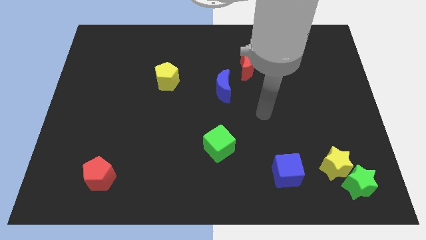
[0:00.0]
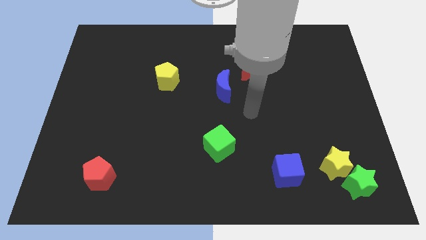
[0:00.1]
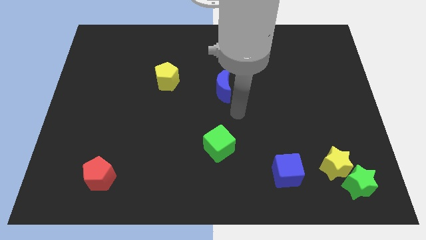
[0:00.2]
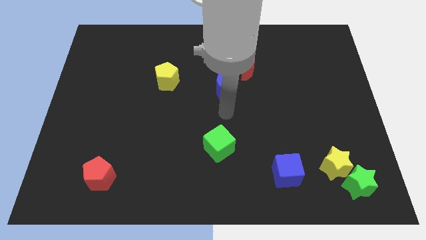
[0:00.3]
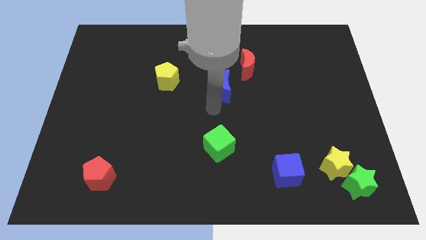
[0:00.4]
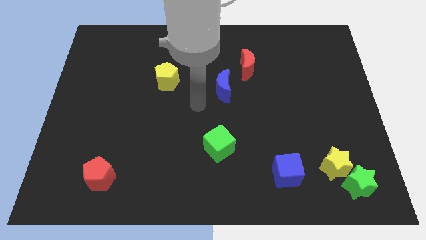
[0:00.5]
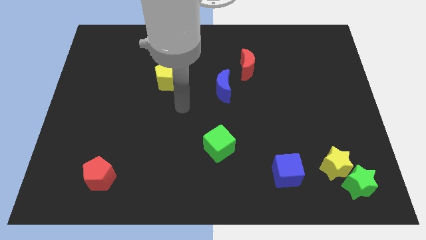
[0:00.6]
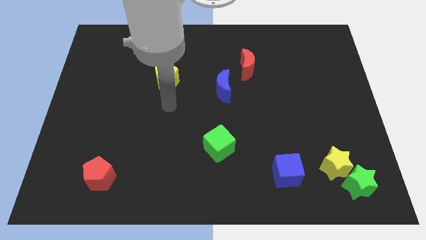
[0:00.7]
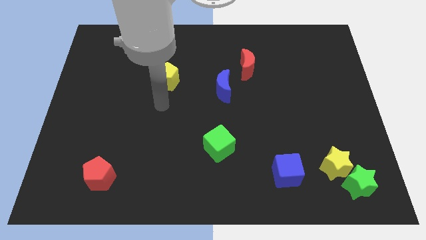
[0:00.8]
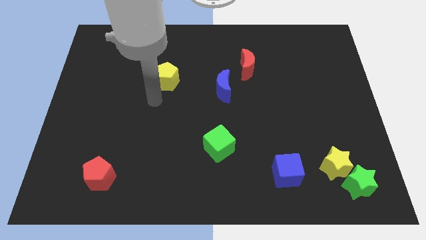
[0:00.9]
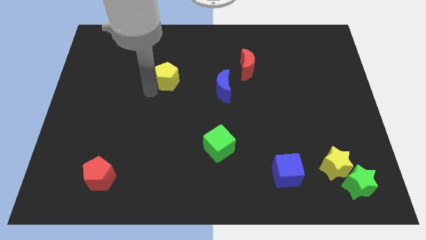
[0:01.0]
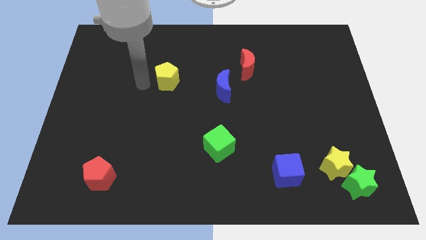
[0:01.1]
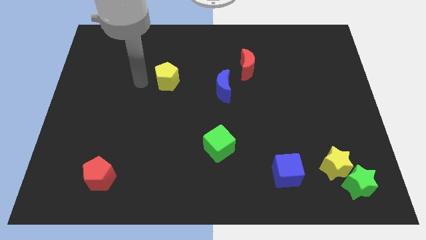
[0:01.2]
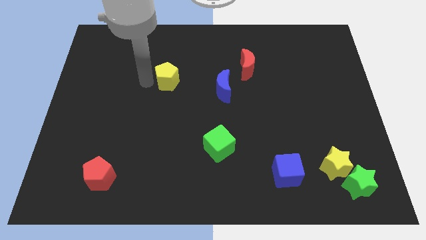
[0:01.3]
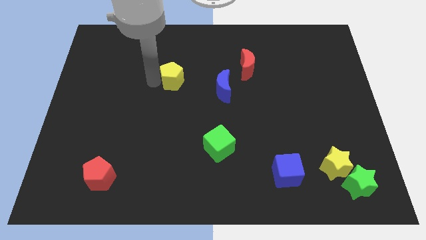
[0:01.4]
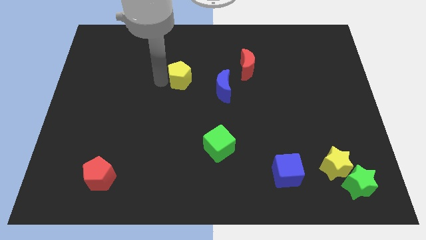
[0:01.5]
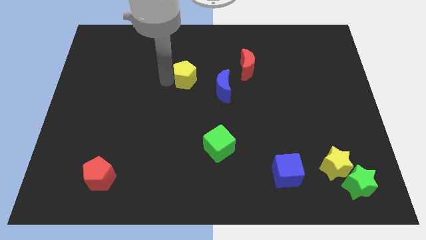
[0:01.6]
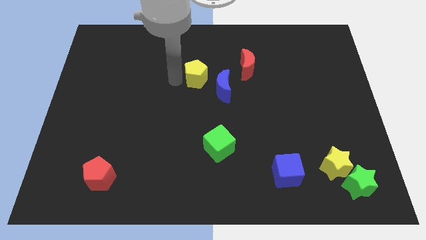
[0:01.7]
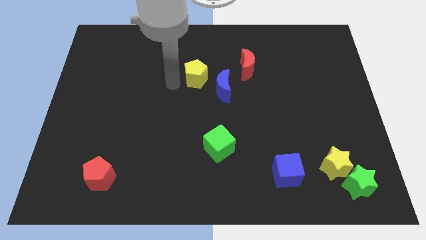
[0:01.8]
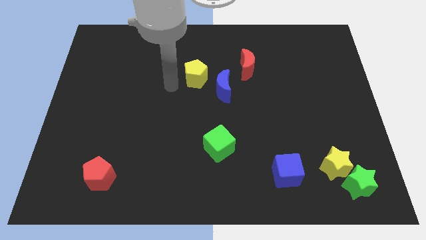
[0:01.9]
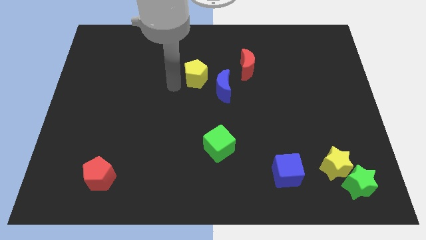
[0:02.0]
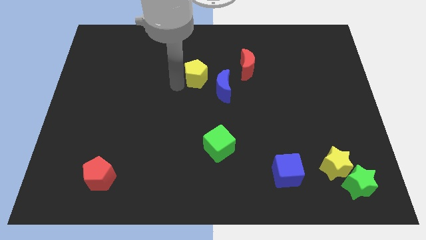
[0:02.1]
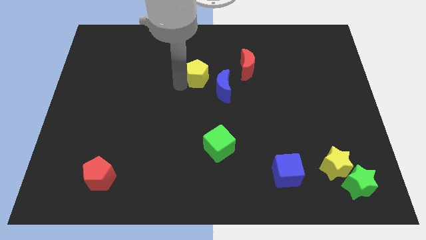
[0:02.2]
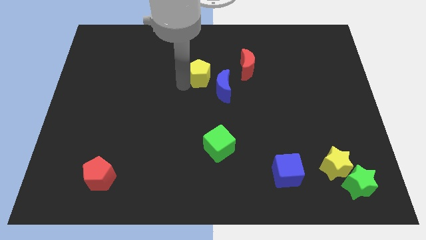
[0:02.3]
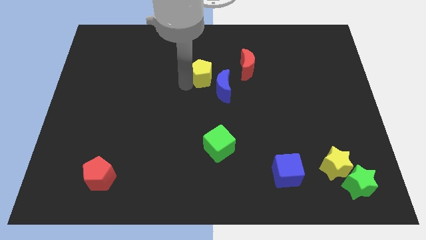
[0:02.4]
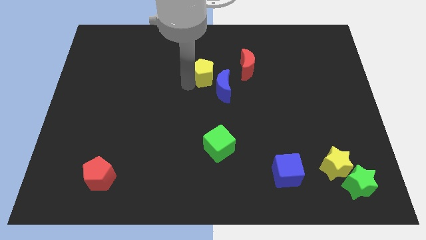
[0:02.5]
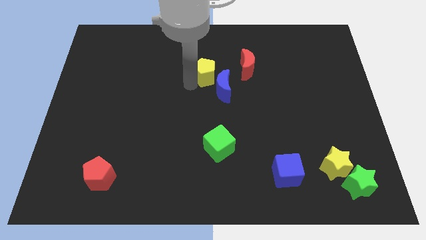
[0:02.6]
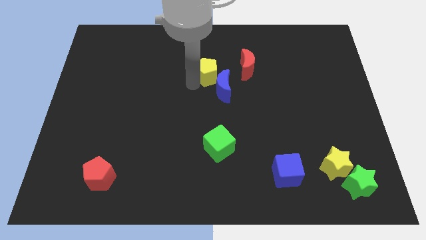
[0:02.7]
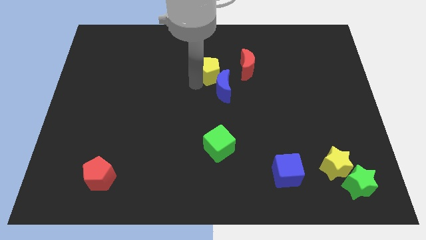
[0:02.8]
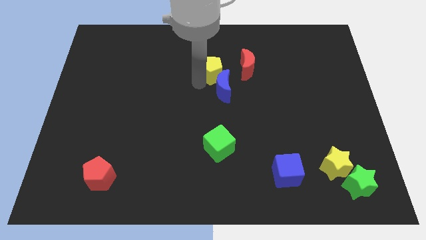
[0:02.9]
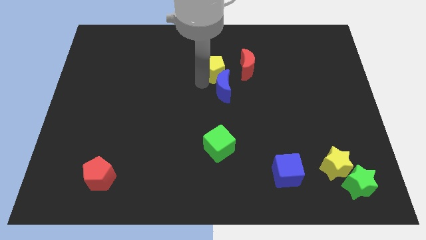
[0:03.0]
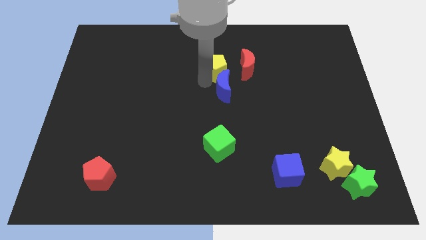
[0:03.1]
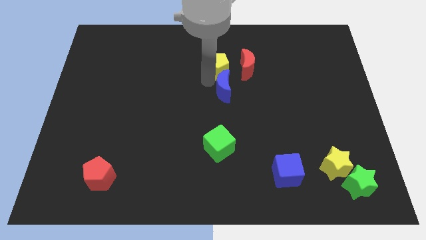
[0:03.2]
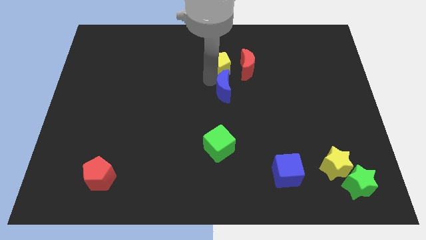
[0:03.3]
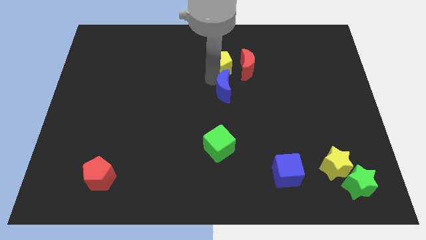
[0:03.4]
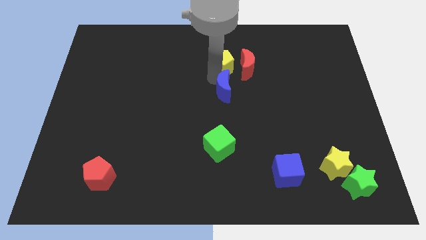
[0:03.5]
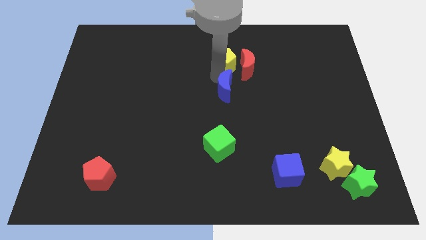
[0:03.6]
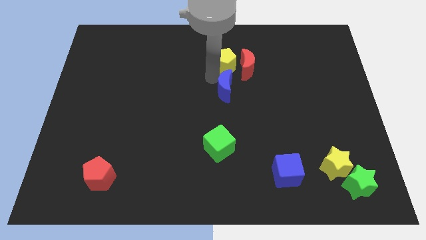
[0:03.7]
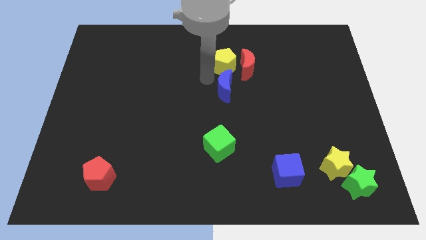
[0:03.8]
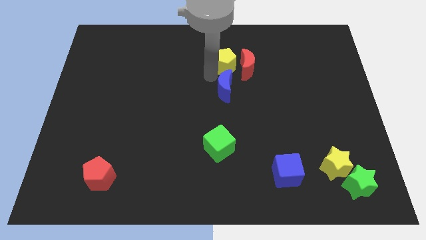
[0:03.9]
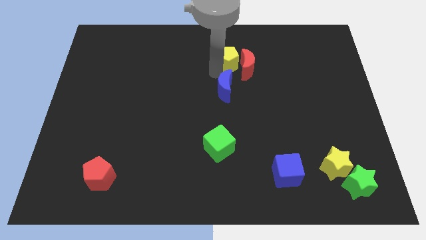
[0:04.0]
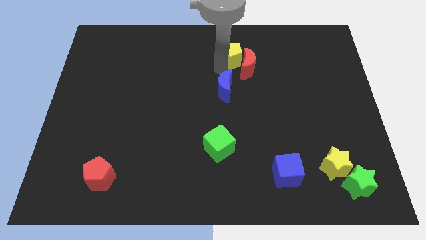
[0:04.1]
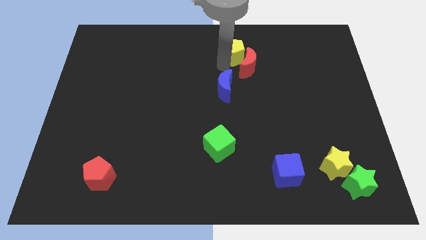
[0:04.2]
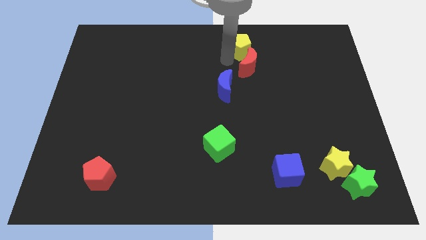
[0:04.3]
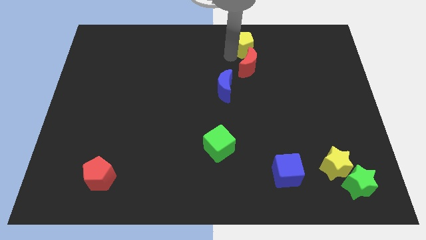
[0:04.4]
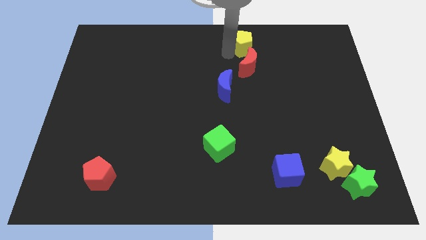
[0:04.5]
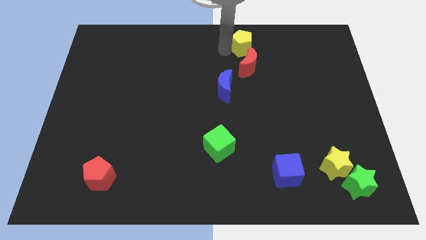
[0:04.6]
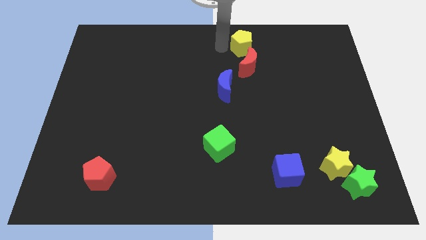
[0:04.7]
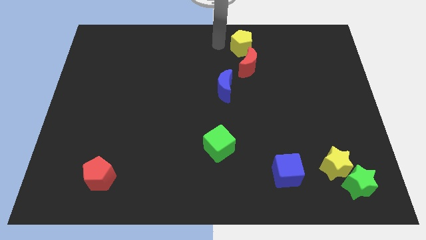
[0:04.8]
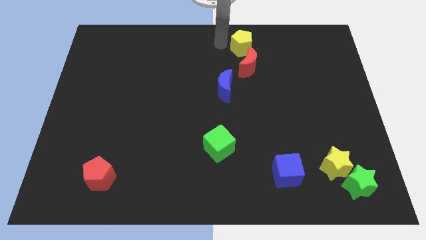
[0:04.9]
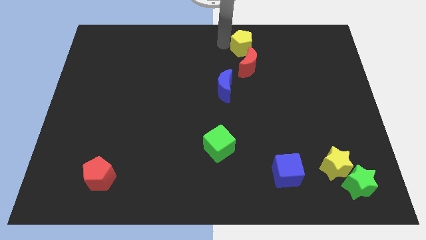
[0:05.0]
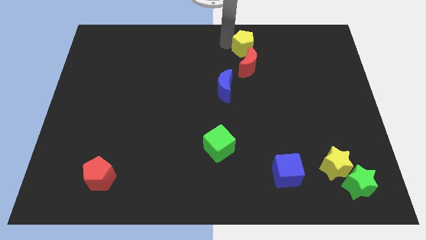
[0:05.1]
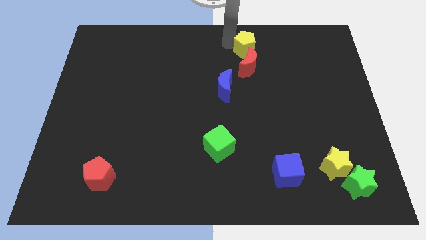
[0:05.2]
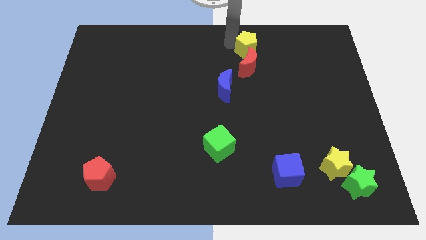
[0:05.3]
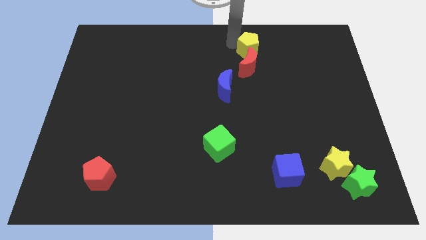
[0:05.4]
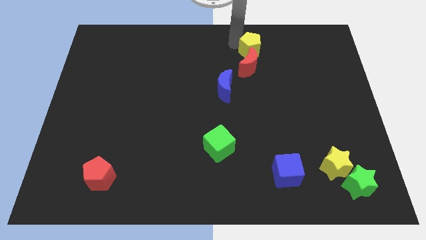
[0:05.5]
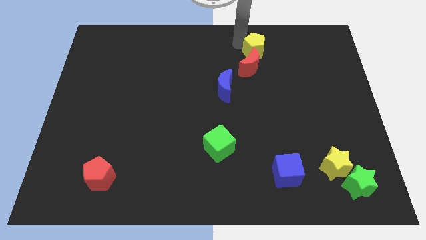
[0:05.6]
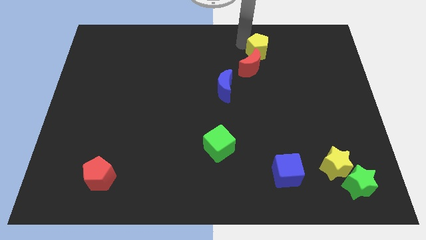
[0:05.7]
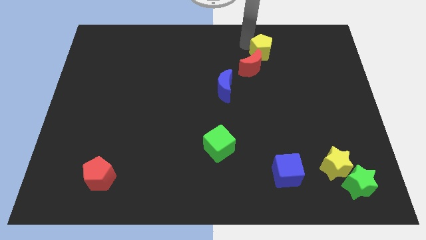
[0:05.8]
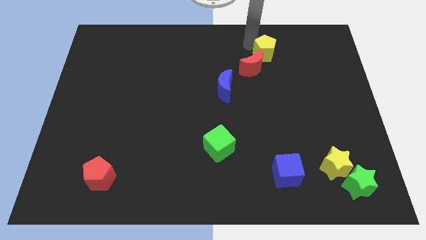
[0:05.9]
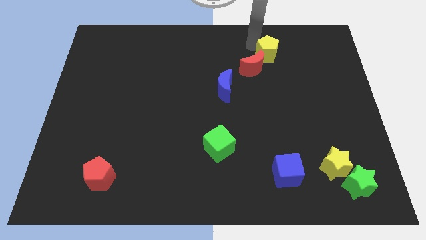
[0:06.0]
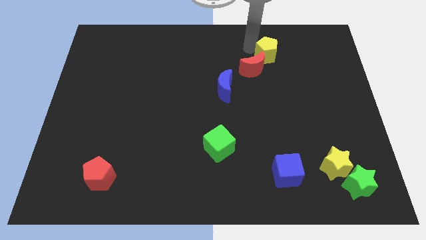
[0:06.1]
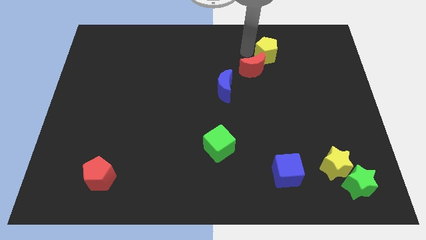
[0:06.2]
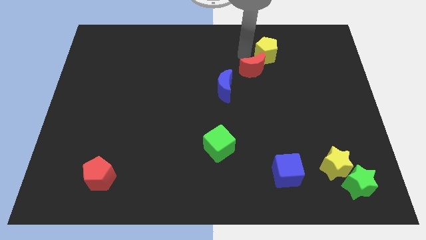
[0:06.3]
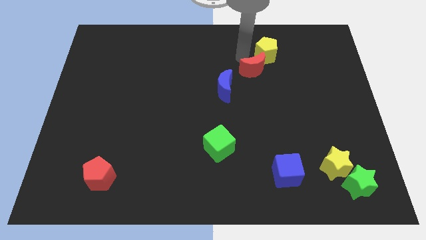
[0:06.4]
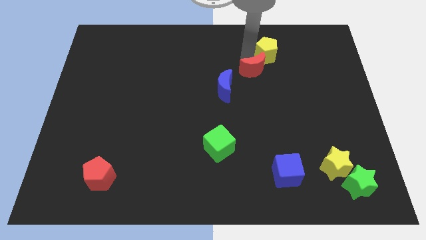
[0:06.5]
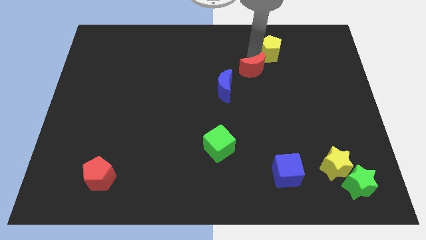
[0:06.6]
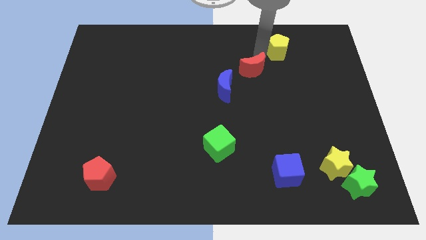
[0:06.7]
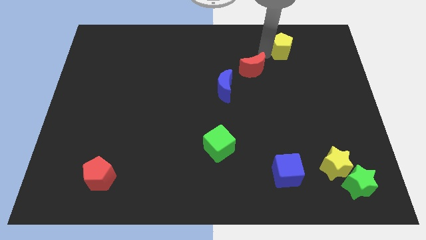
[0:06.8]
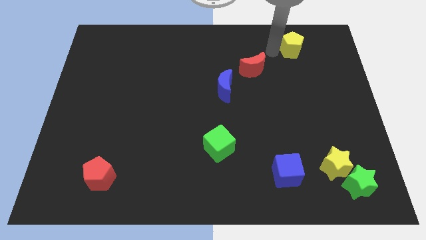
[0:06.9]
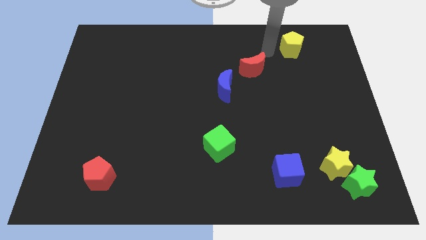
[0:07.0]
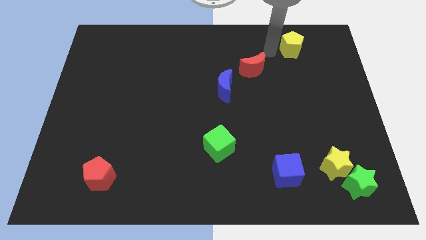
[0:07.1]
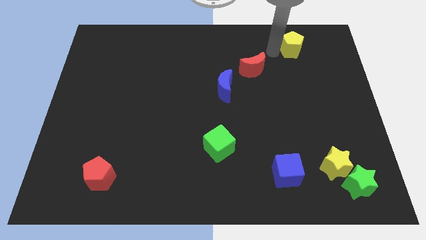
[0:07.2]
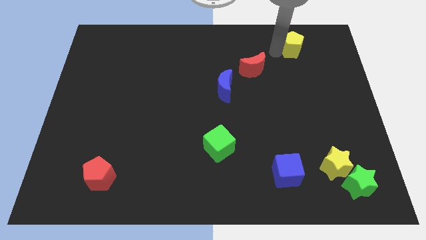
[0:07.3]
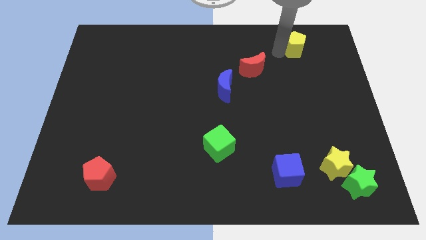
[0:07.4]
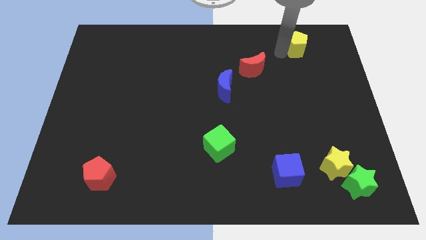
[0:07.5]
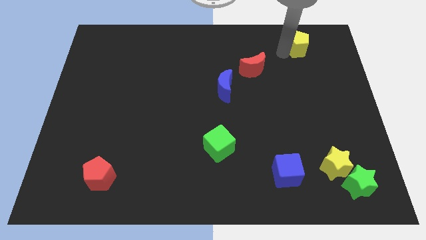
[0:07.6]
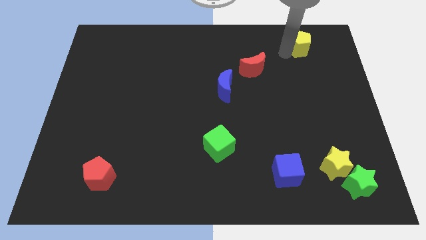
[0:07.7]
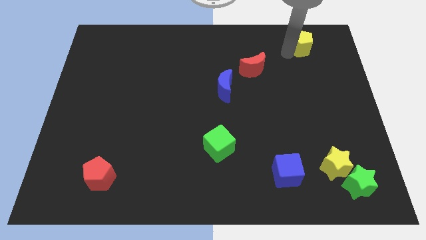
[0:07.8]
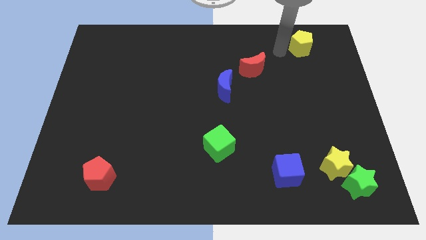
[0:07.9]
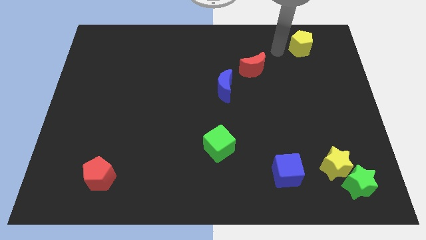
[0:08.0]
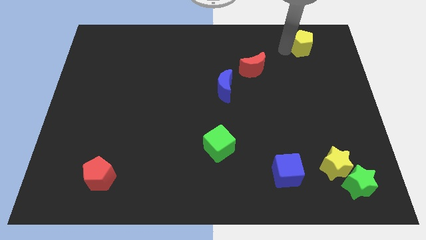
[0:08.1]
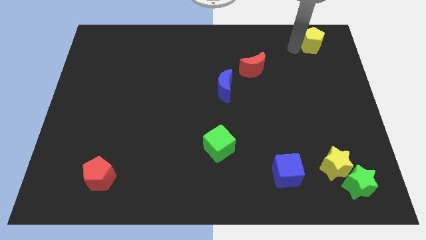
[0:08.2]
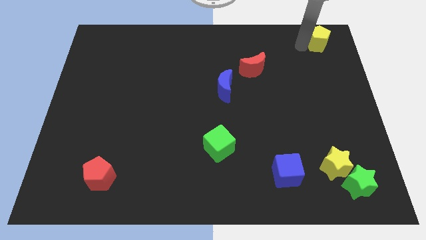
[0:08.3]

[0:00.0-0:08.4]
push the yellow pentagon to the top right
